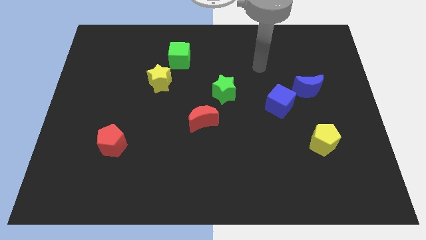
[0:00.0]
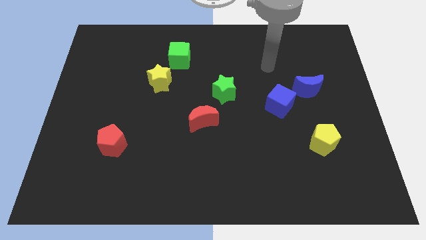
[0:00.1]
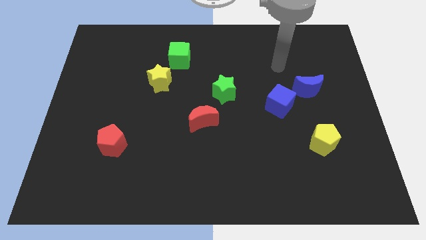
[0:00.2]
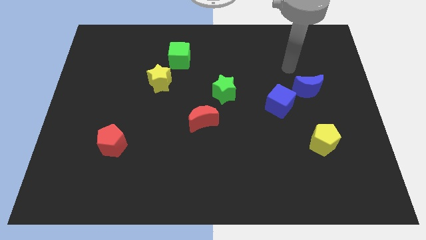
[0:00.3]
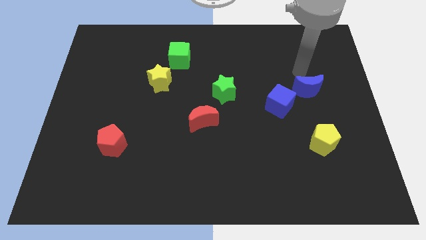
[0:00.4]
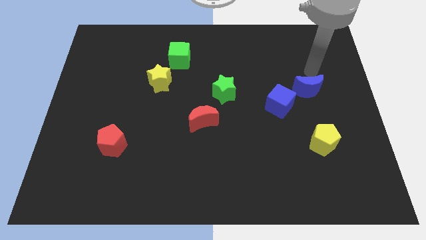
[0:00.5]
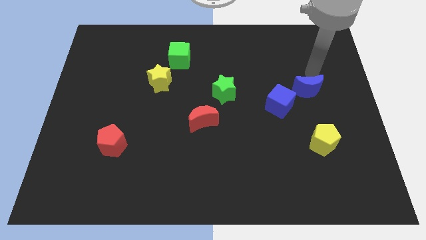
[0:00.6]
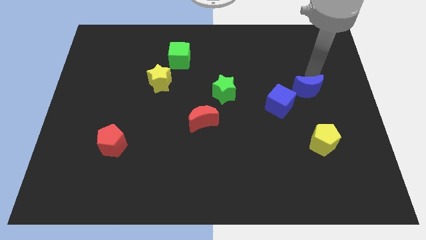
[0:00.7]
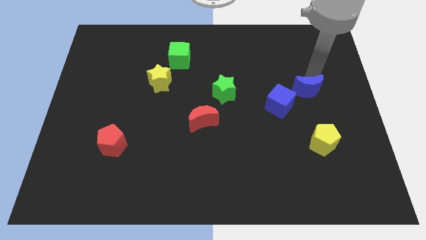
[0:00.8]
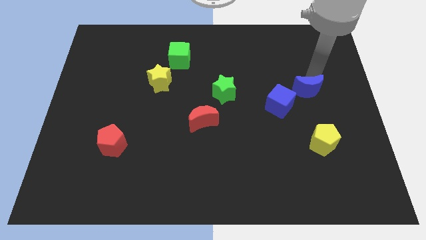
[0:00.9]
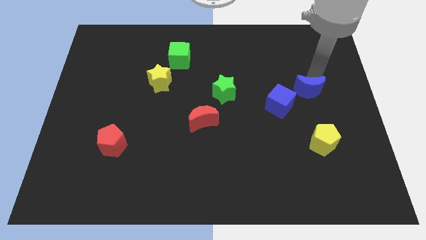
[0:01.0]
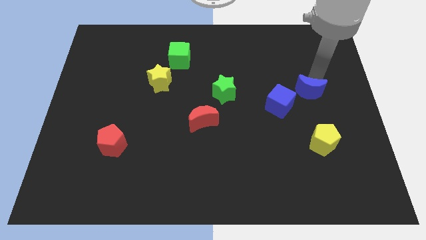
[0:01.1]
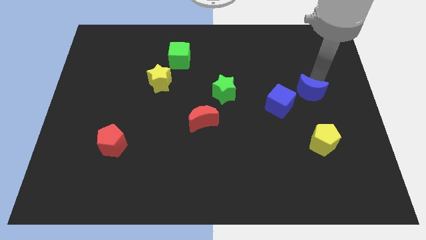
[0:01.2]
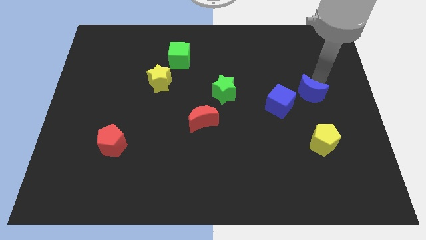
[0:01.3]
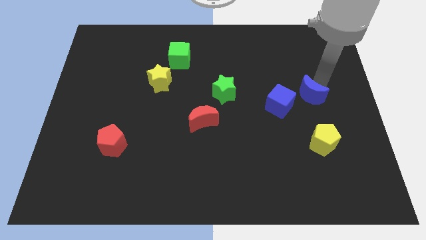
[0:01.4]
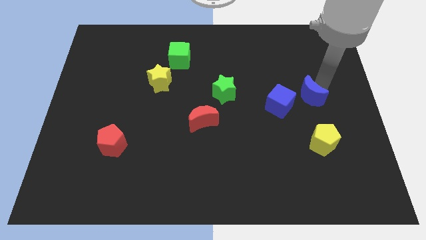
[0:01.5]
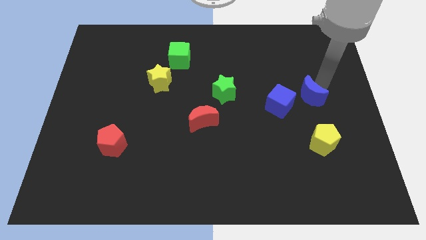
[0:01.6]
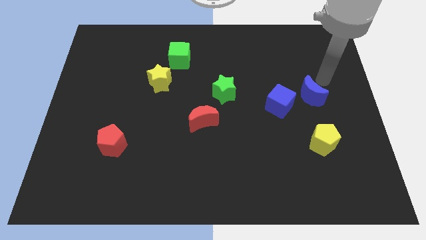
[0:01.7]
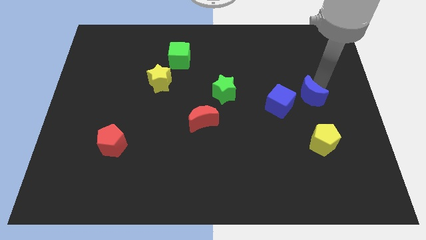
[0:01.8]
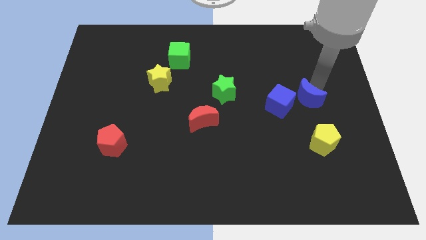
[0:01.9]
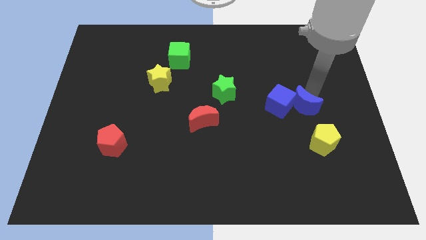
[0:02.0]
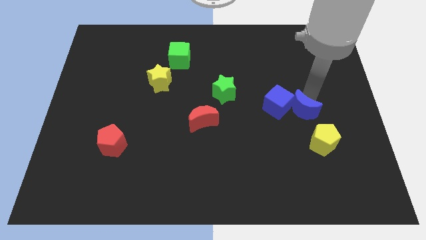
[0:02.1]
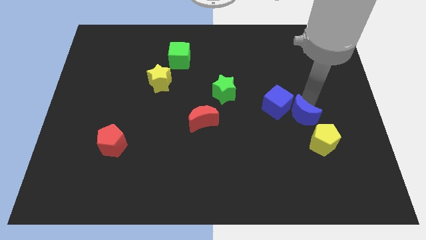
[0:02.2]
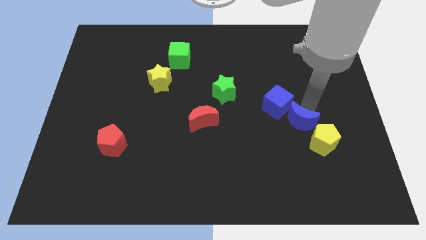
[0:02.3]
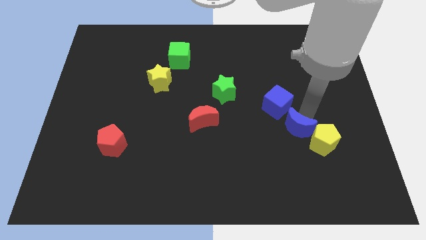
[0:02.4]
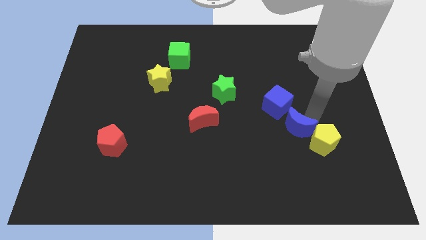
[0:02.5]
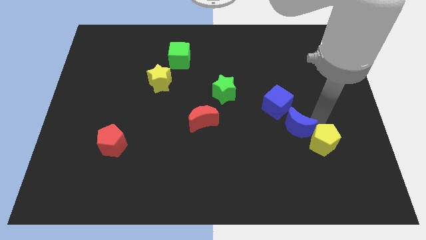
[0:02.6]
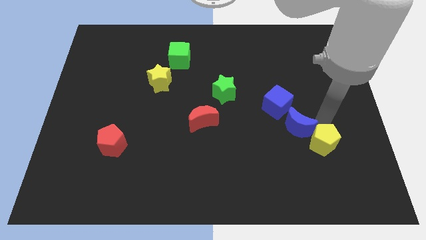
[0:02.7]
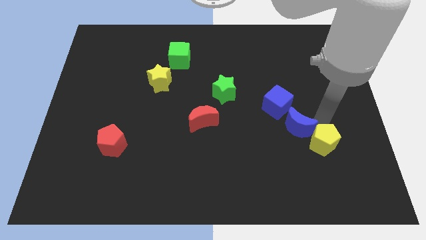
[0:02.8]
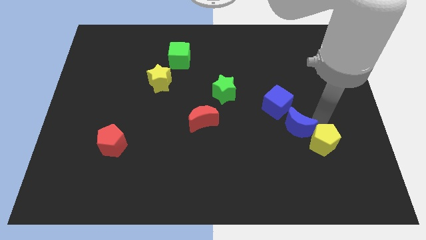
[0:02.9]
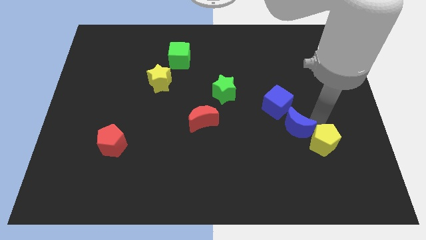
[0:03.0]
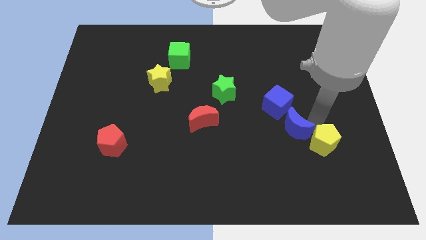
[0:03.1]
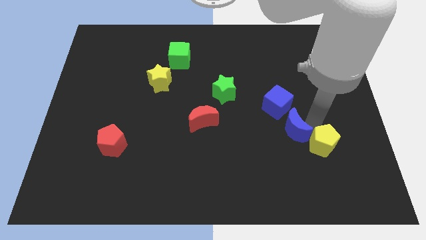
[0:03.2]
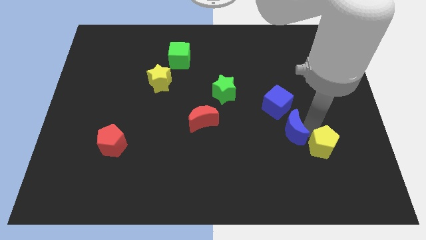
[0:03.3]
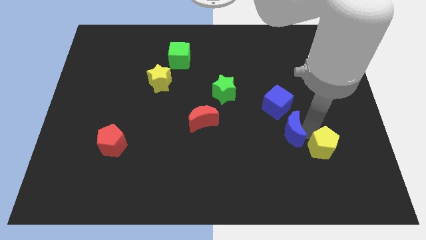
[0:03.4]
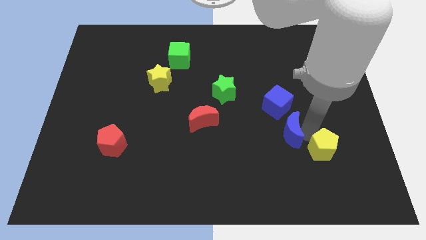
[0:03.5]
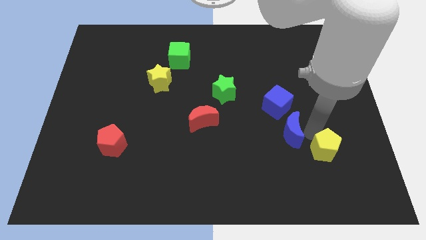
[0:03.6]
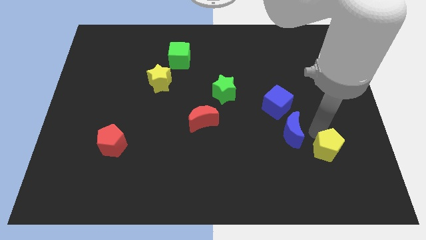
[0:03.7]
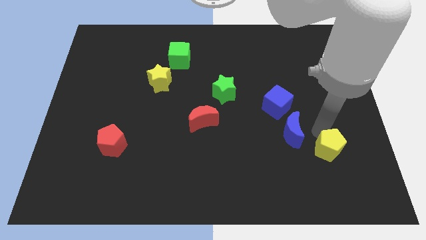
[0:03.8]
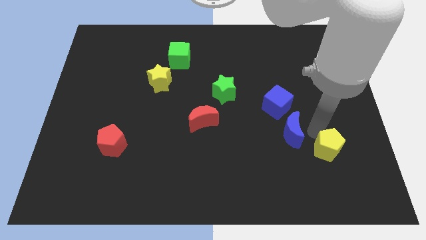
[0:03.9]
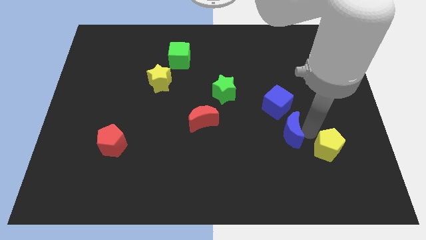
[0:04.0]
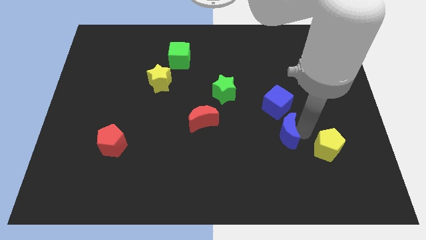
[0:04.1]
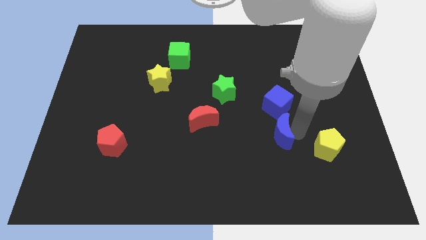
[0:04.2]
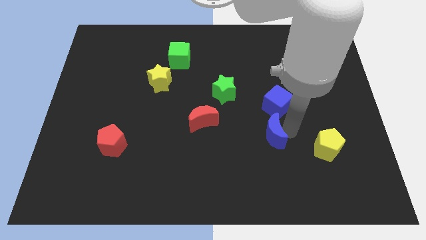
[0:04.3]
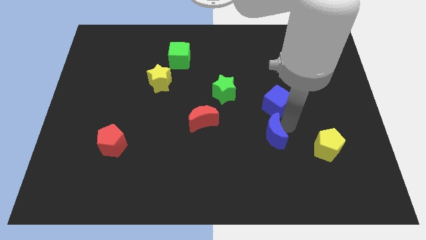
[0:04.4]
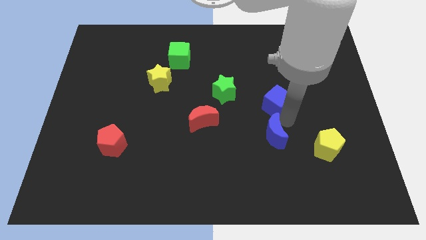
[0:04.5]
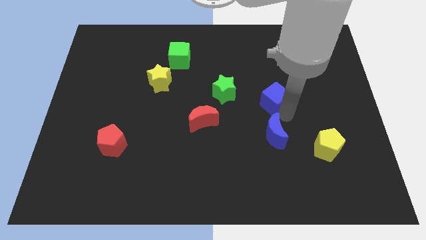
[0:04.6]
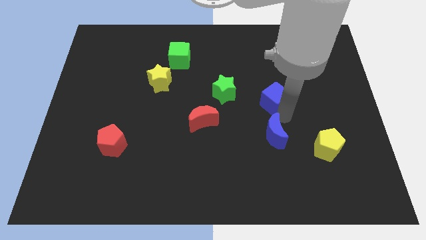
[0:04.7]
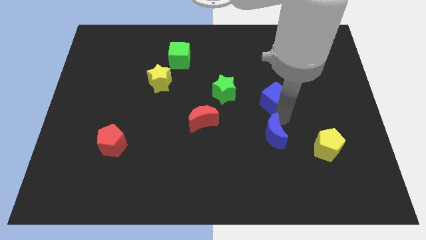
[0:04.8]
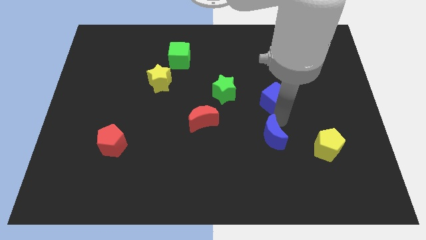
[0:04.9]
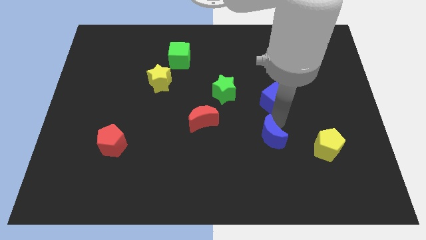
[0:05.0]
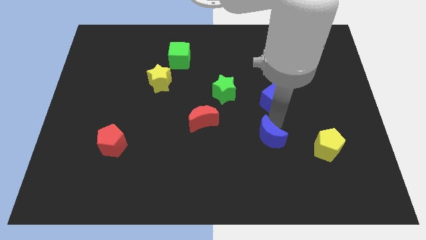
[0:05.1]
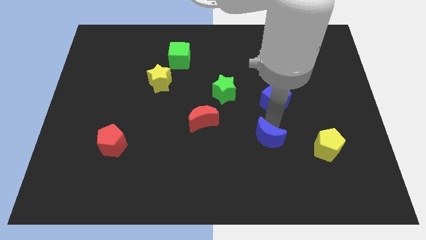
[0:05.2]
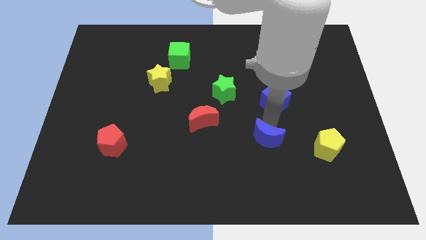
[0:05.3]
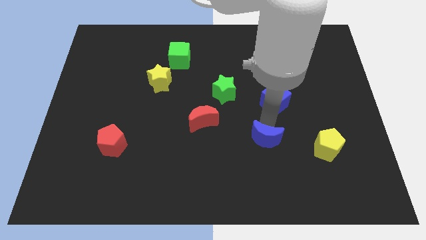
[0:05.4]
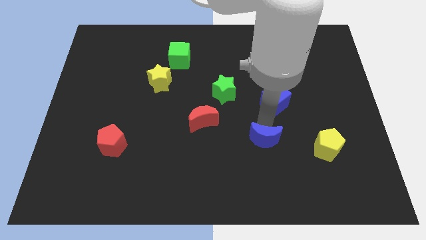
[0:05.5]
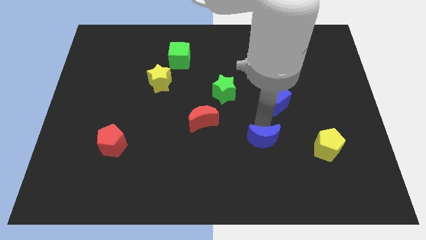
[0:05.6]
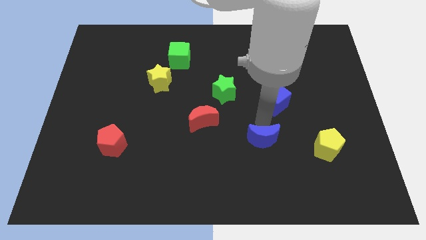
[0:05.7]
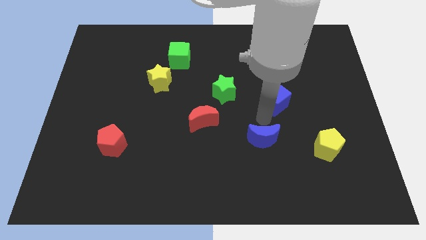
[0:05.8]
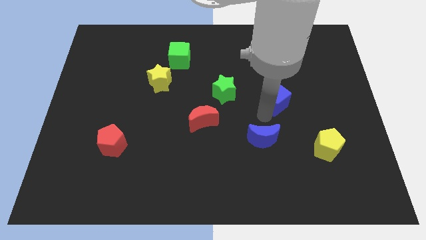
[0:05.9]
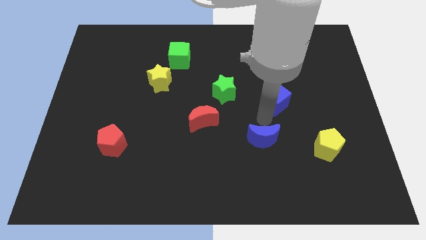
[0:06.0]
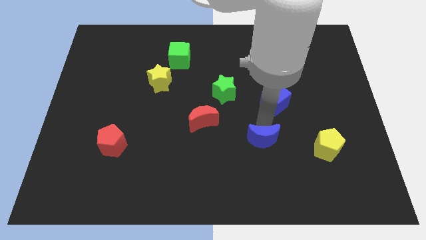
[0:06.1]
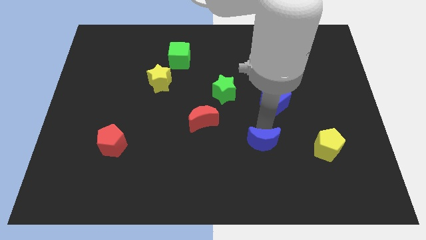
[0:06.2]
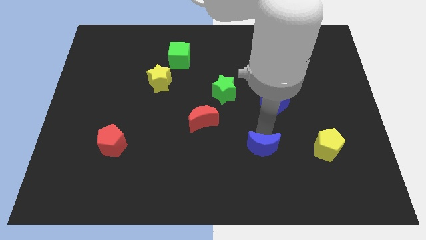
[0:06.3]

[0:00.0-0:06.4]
push the blue moon diagonally down and left

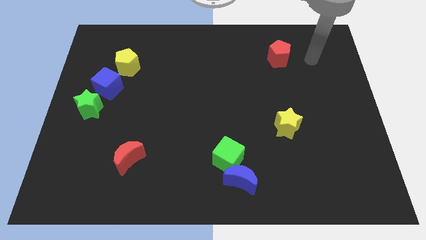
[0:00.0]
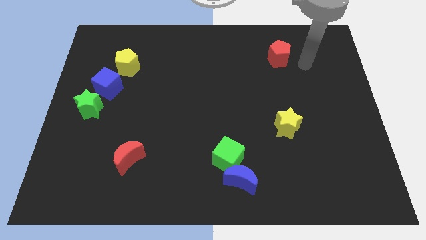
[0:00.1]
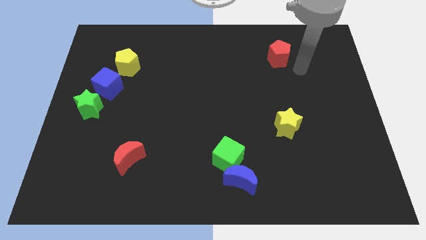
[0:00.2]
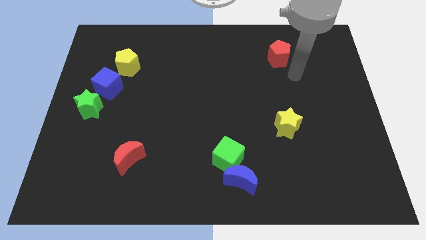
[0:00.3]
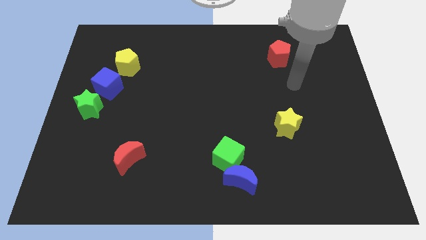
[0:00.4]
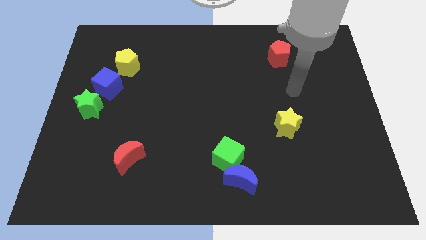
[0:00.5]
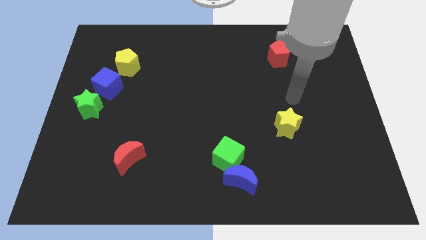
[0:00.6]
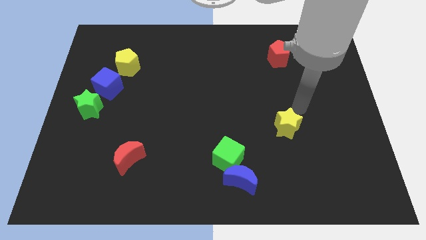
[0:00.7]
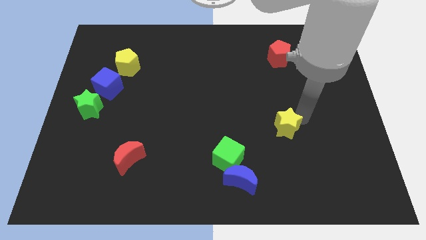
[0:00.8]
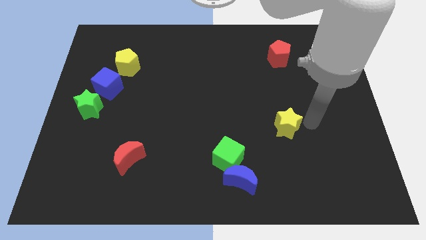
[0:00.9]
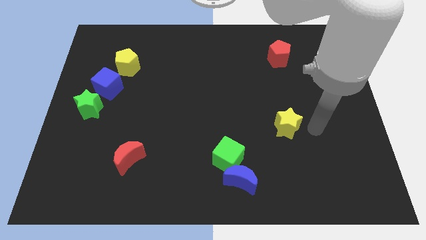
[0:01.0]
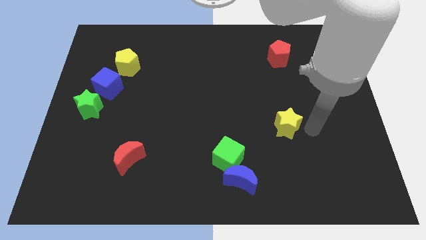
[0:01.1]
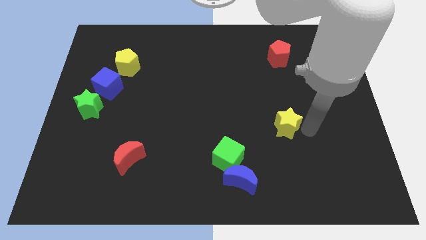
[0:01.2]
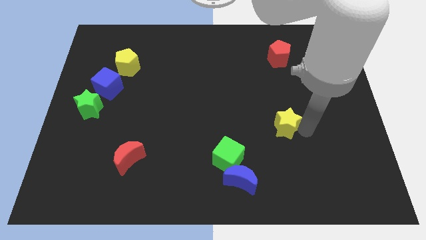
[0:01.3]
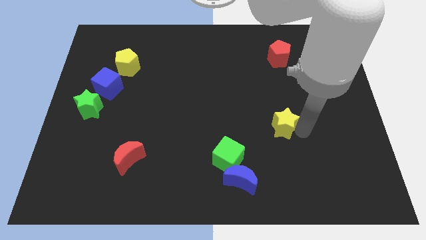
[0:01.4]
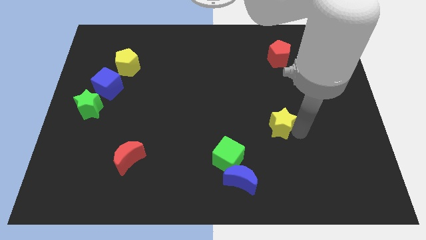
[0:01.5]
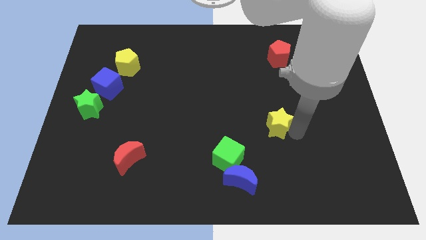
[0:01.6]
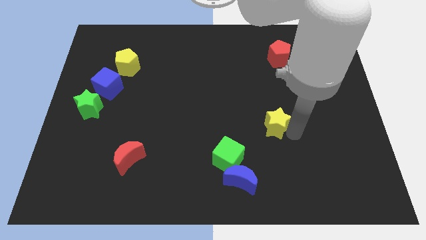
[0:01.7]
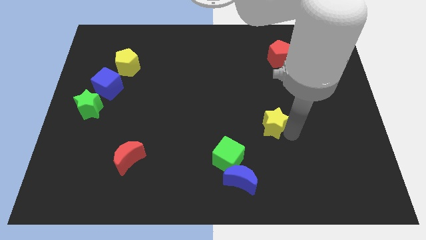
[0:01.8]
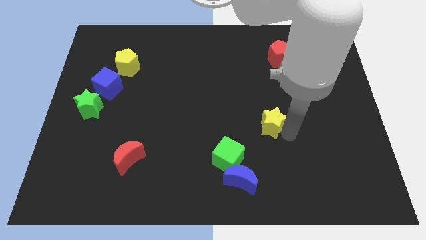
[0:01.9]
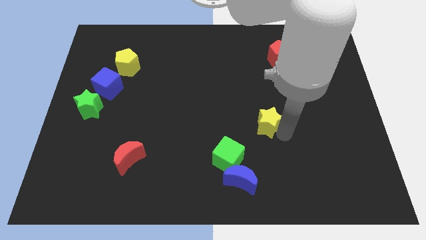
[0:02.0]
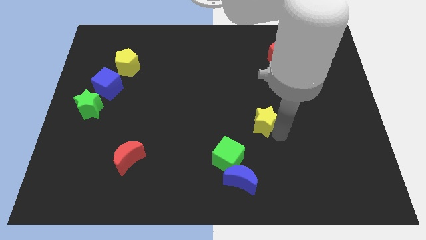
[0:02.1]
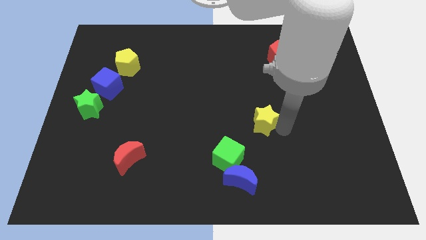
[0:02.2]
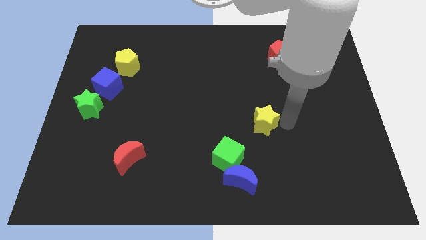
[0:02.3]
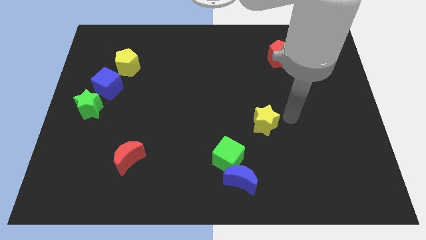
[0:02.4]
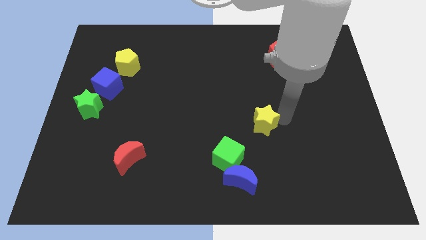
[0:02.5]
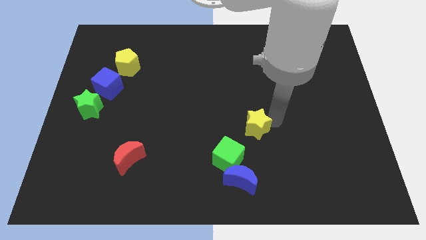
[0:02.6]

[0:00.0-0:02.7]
push the yellow star somewhat to the left
